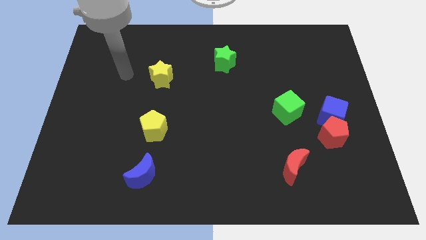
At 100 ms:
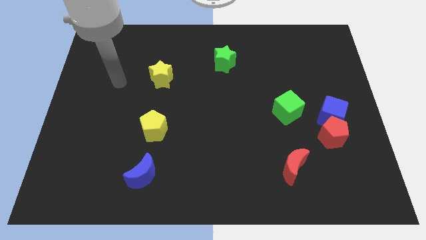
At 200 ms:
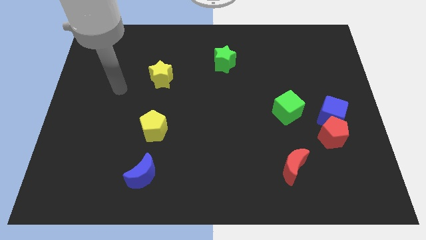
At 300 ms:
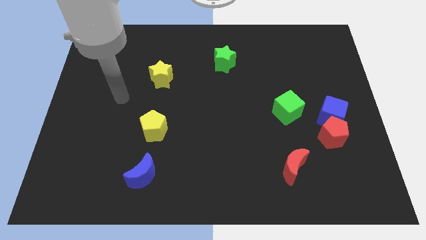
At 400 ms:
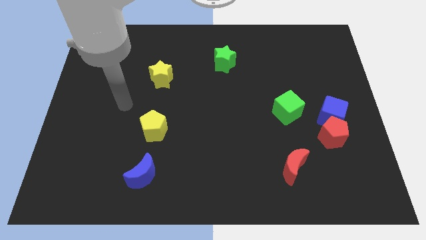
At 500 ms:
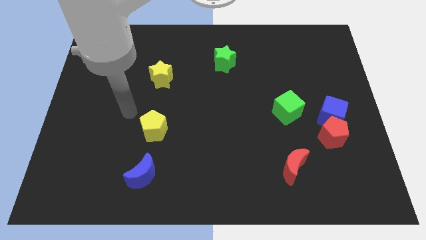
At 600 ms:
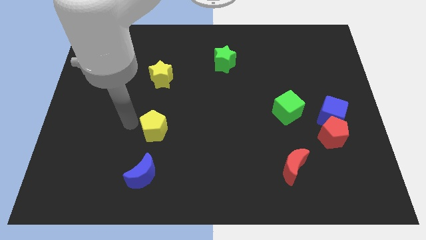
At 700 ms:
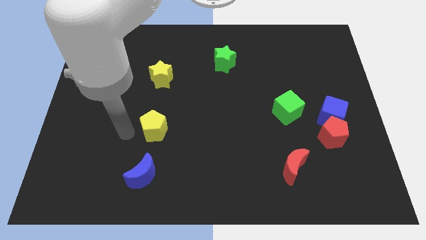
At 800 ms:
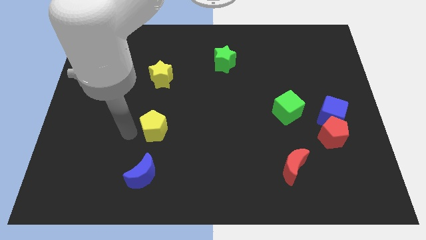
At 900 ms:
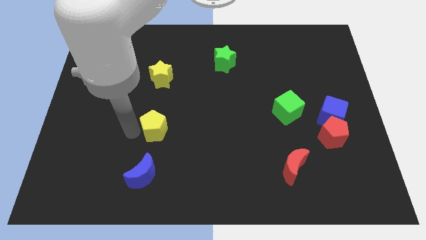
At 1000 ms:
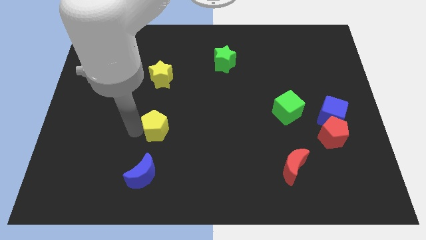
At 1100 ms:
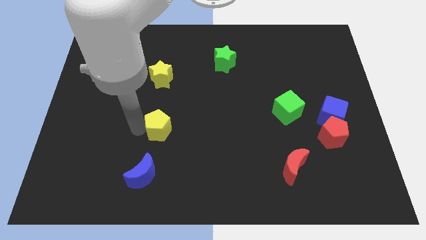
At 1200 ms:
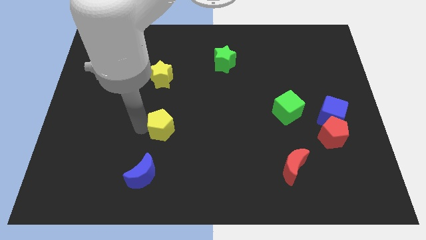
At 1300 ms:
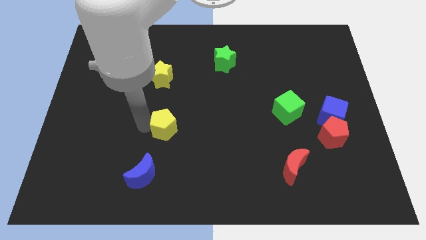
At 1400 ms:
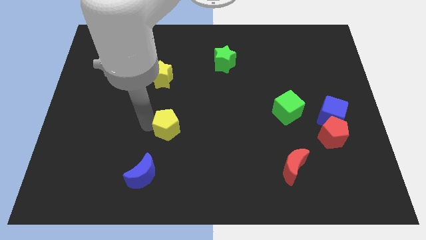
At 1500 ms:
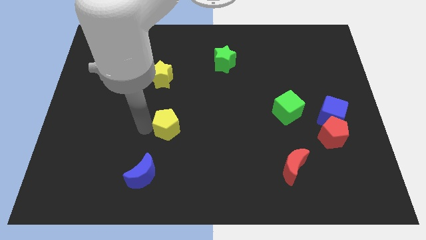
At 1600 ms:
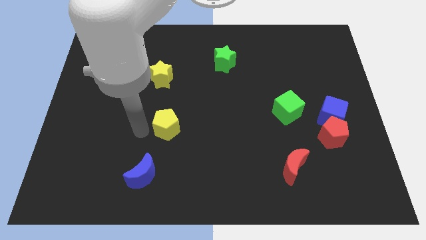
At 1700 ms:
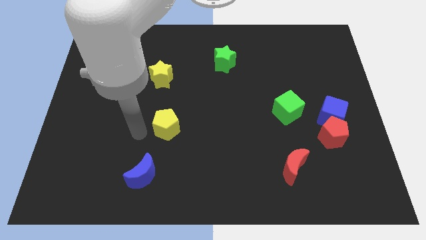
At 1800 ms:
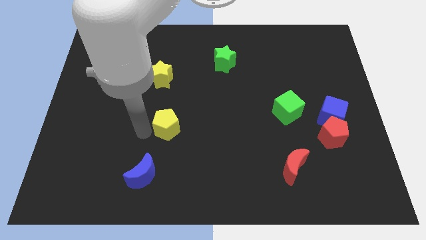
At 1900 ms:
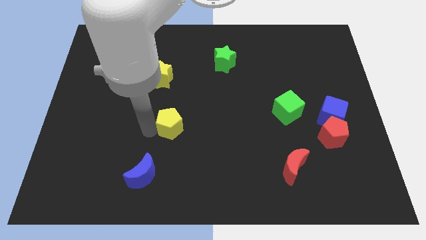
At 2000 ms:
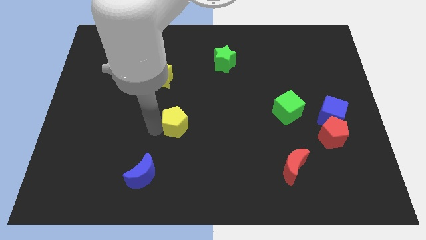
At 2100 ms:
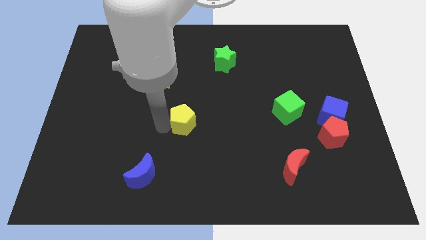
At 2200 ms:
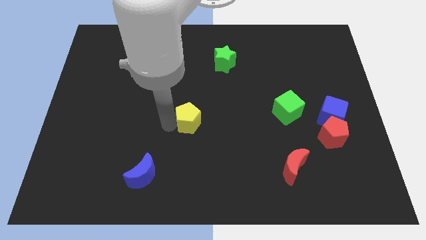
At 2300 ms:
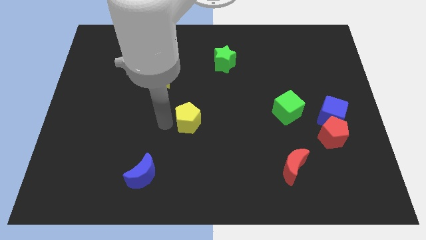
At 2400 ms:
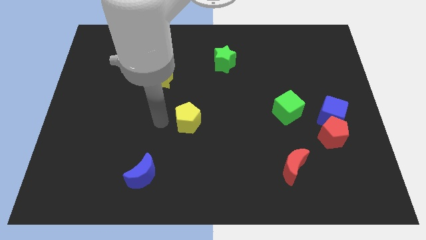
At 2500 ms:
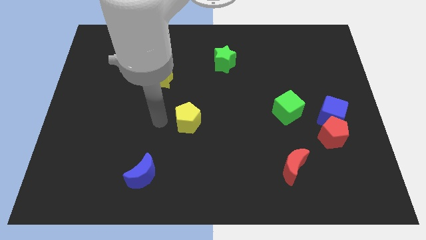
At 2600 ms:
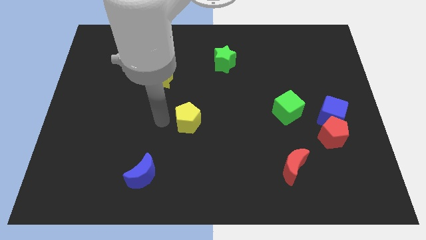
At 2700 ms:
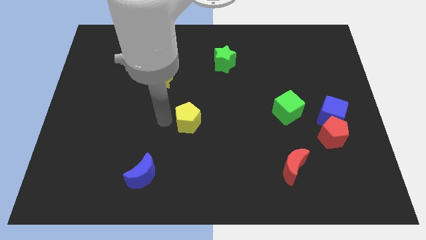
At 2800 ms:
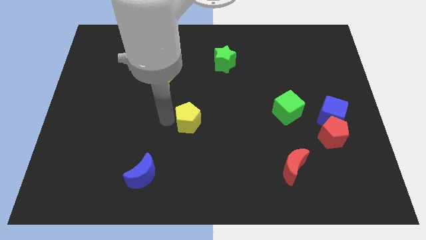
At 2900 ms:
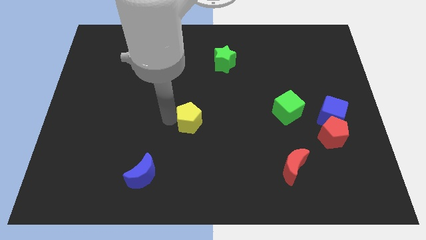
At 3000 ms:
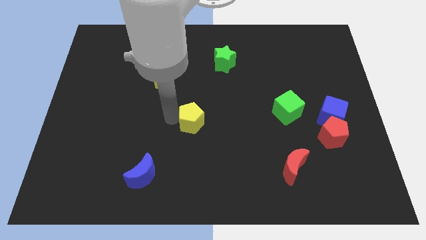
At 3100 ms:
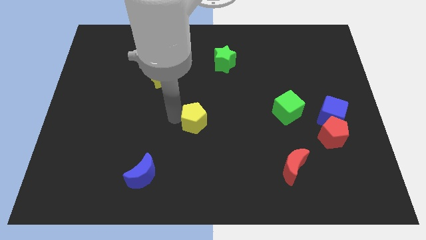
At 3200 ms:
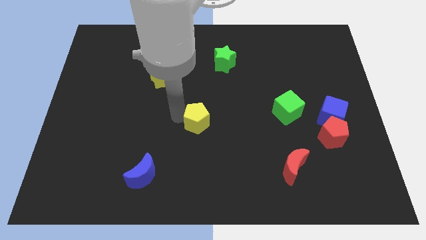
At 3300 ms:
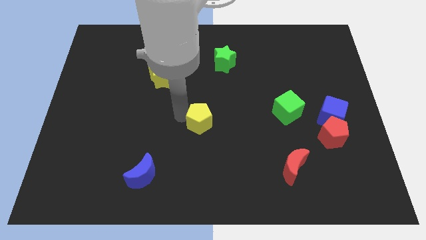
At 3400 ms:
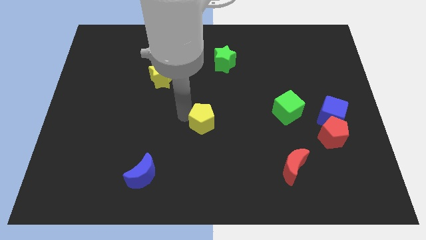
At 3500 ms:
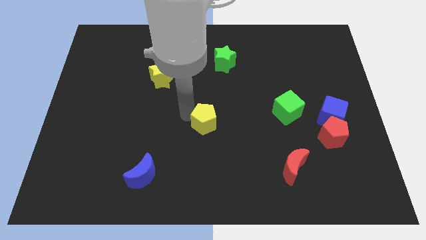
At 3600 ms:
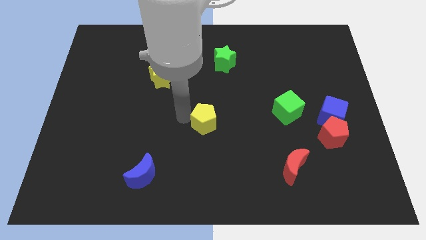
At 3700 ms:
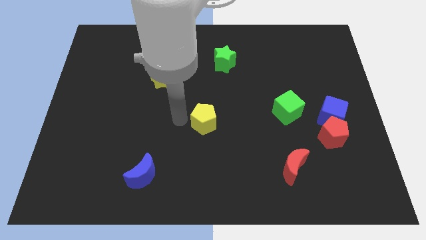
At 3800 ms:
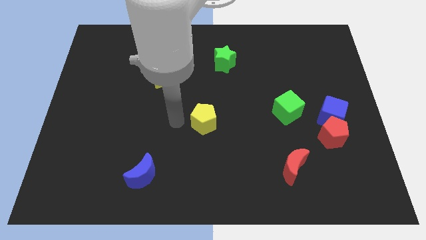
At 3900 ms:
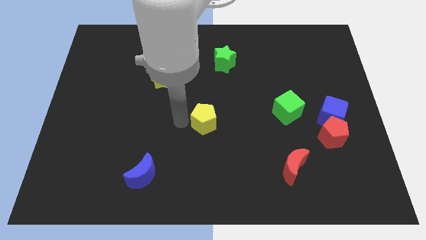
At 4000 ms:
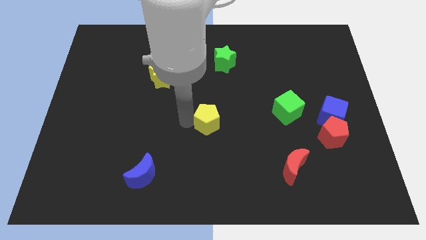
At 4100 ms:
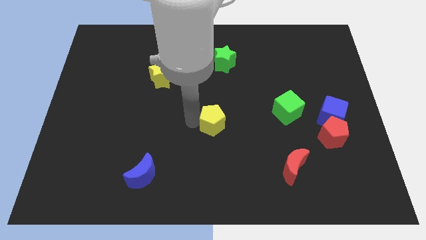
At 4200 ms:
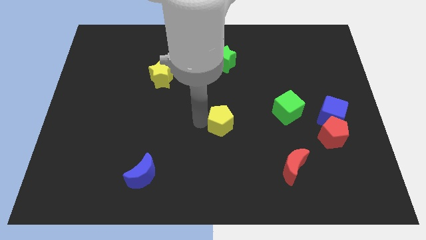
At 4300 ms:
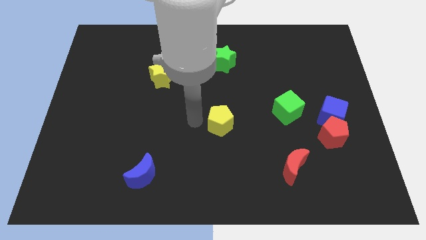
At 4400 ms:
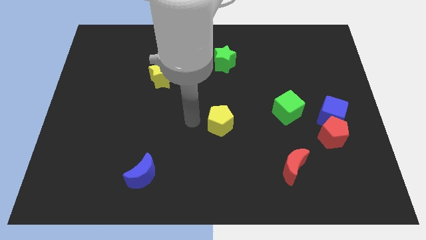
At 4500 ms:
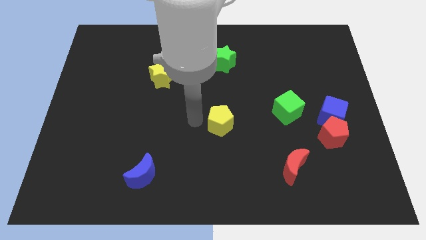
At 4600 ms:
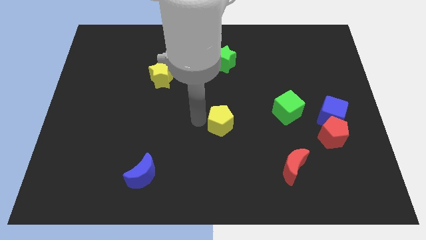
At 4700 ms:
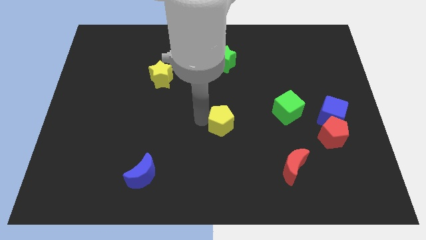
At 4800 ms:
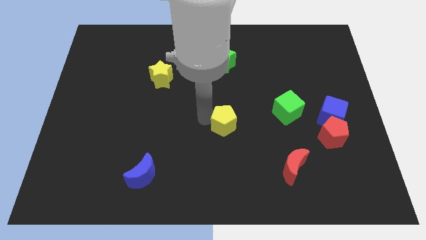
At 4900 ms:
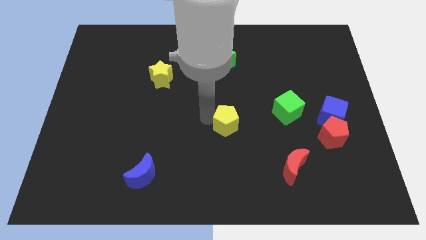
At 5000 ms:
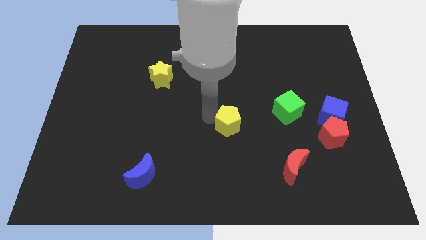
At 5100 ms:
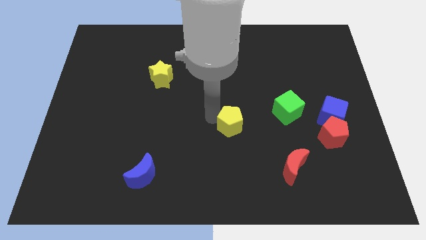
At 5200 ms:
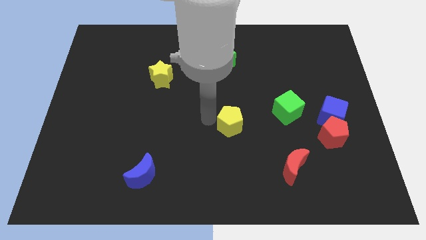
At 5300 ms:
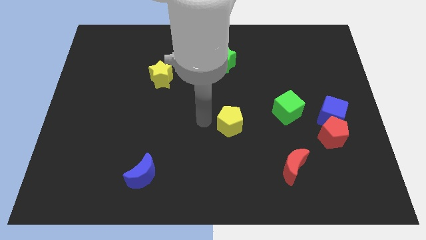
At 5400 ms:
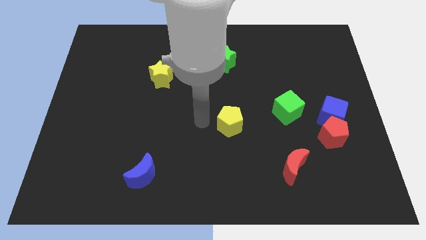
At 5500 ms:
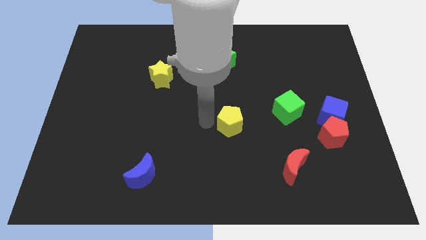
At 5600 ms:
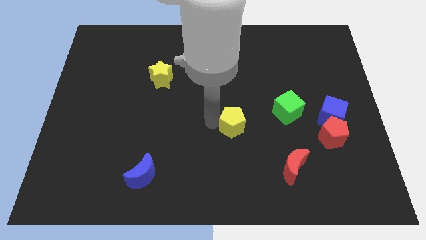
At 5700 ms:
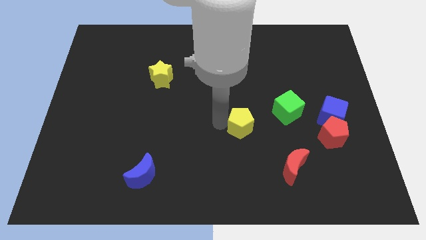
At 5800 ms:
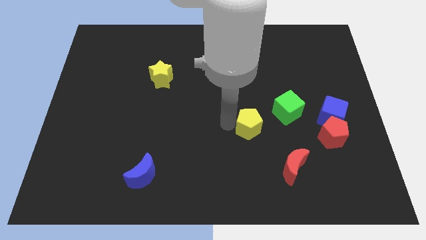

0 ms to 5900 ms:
push the yellow pentagon to the right

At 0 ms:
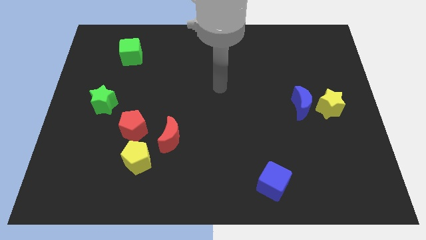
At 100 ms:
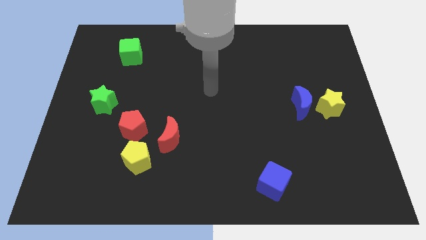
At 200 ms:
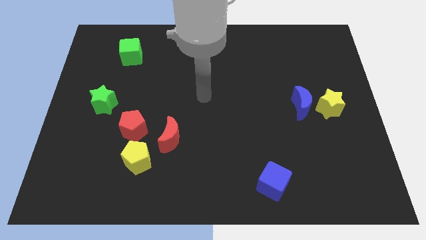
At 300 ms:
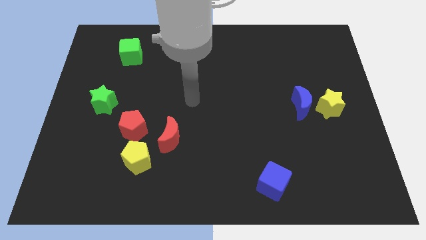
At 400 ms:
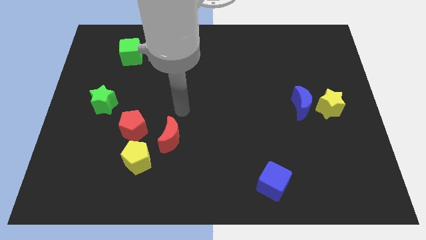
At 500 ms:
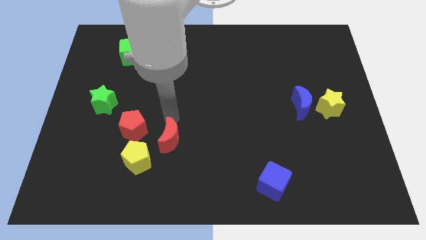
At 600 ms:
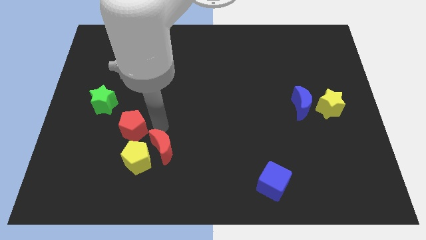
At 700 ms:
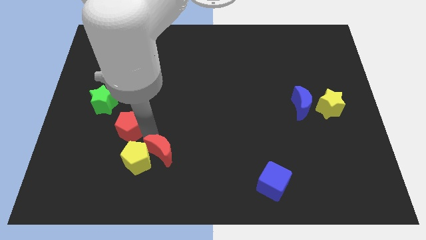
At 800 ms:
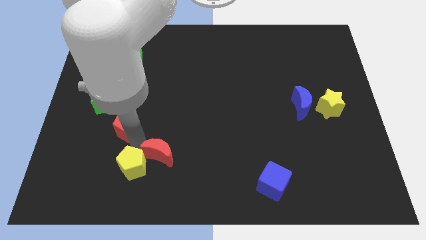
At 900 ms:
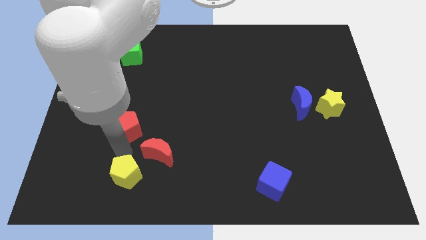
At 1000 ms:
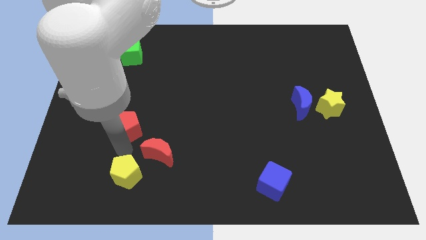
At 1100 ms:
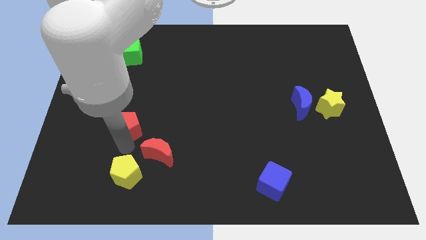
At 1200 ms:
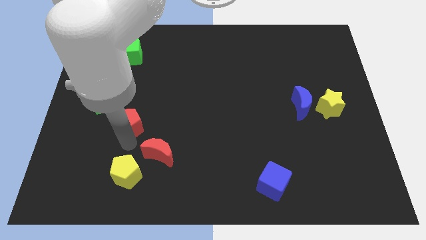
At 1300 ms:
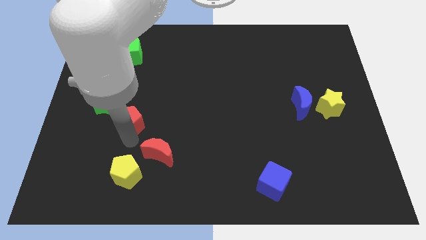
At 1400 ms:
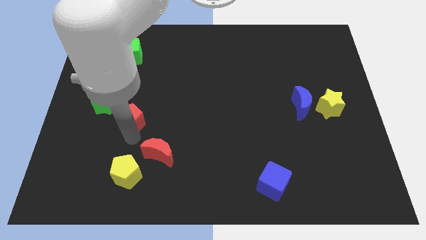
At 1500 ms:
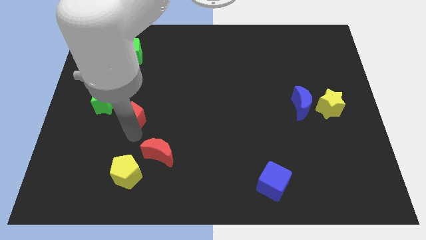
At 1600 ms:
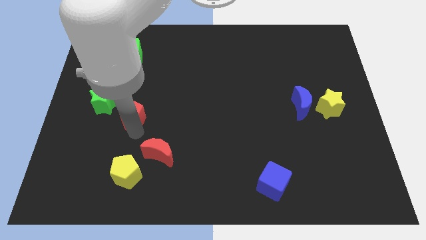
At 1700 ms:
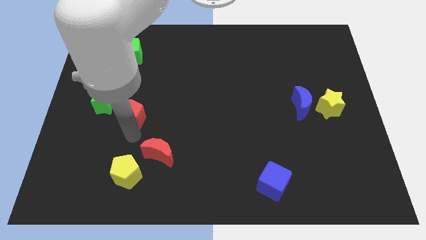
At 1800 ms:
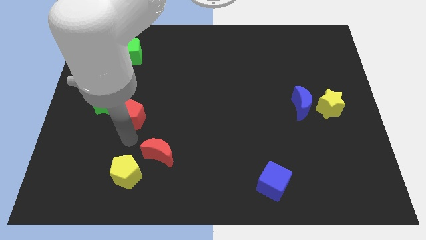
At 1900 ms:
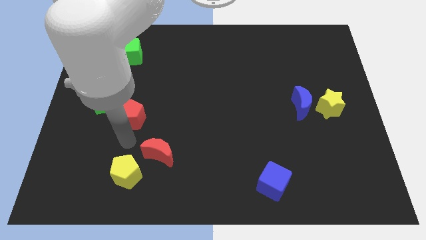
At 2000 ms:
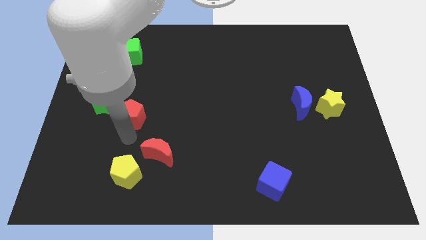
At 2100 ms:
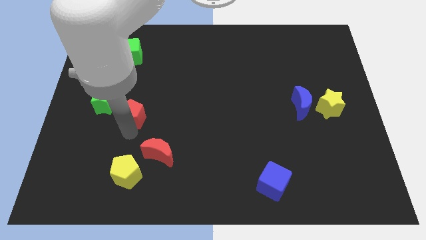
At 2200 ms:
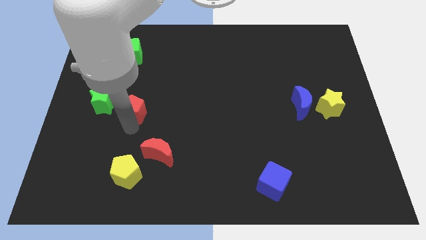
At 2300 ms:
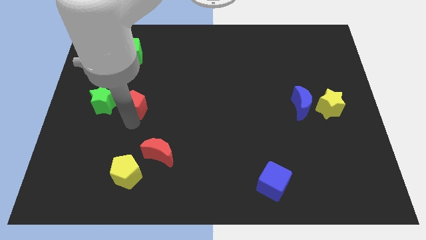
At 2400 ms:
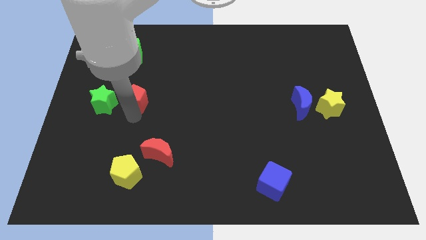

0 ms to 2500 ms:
push the red pentagon up a little
